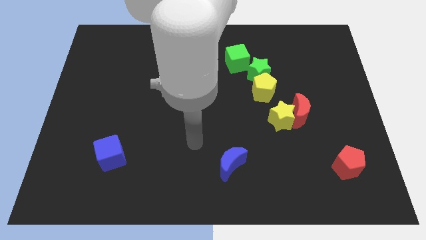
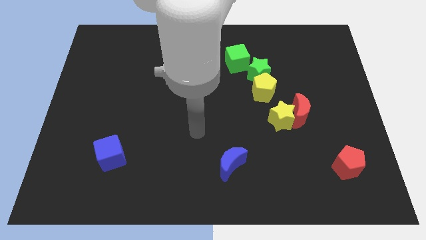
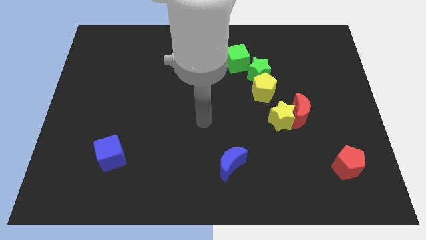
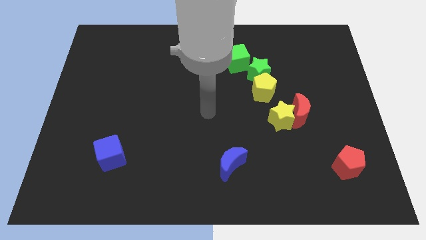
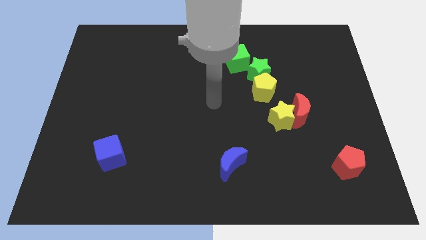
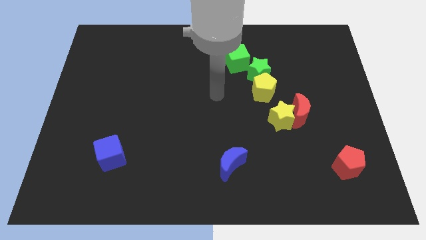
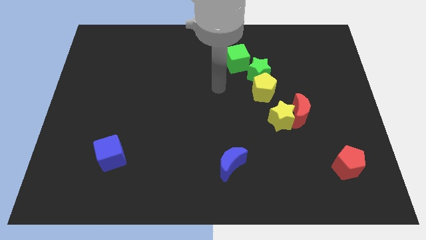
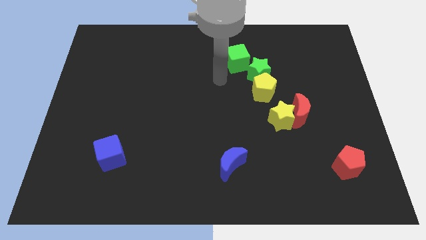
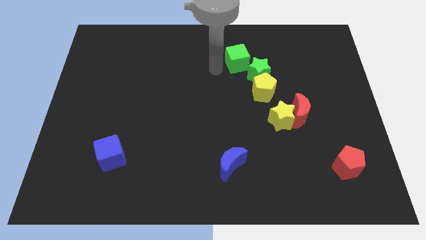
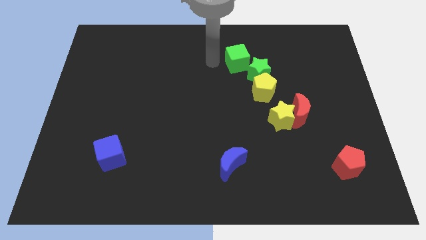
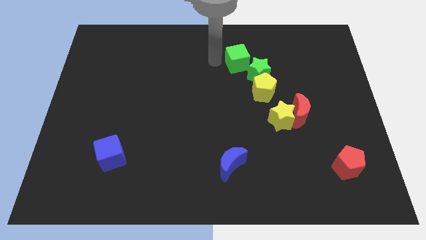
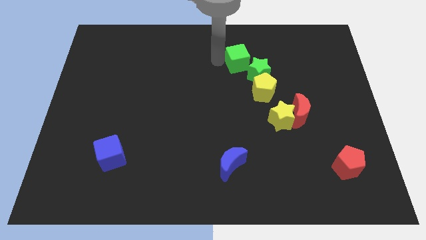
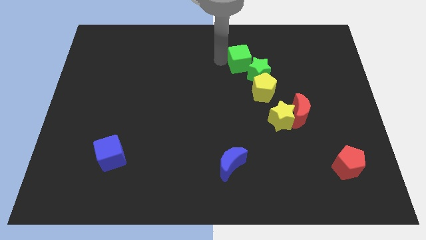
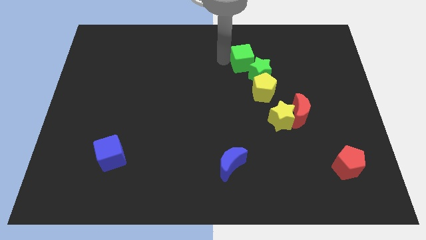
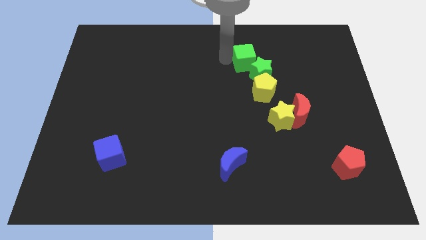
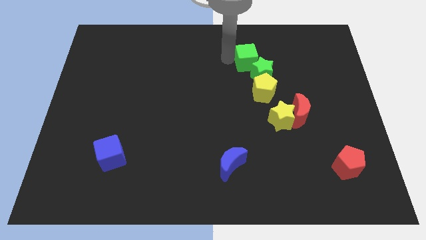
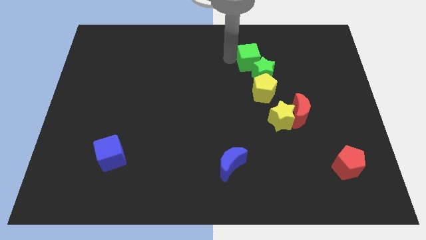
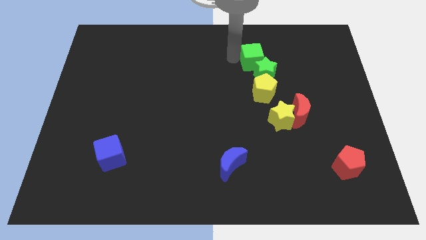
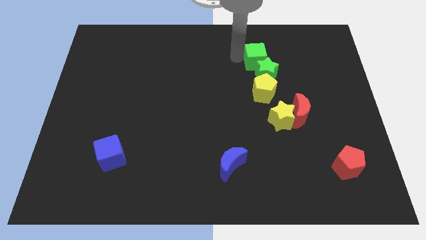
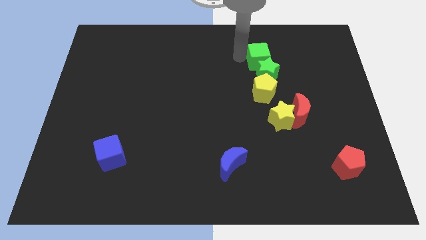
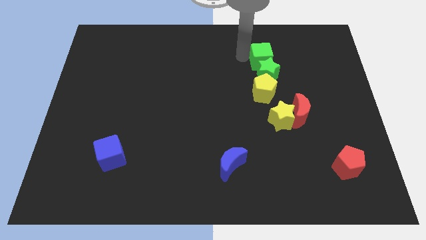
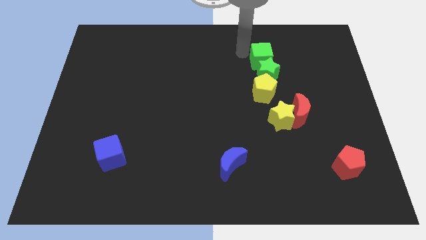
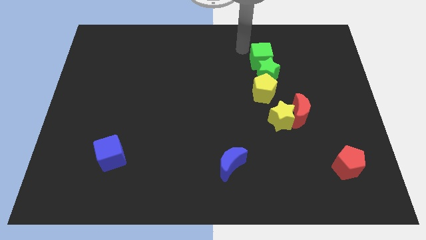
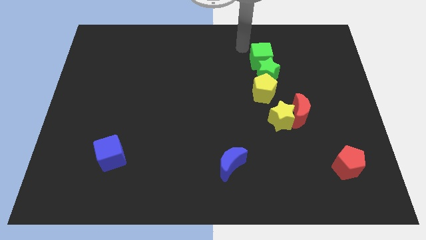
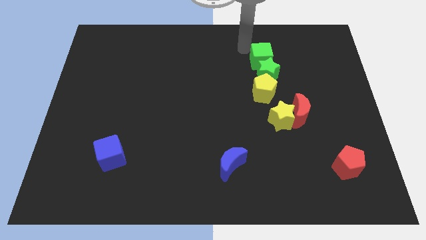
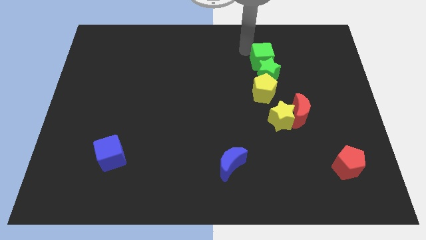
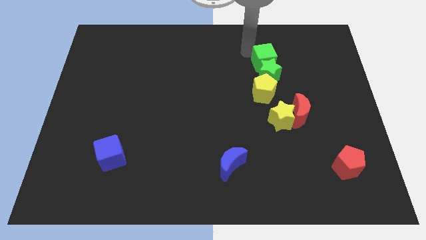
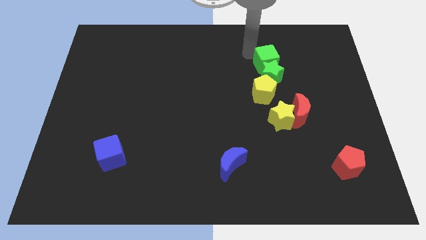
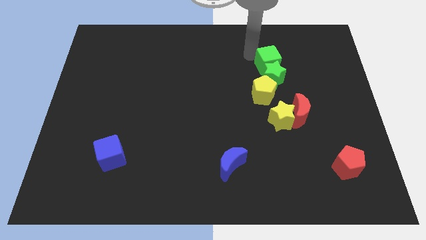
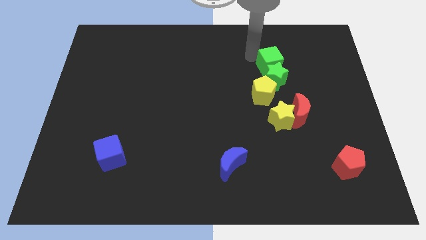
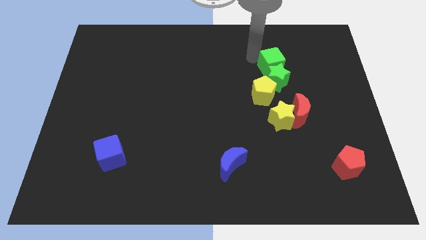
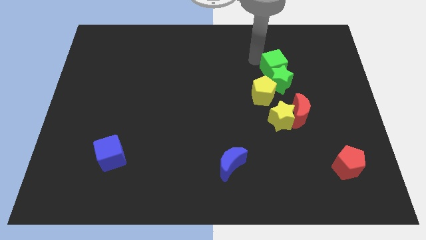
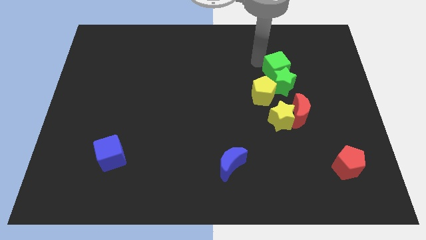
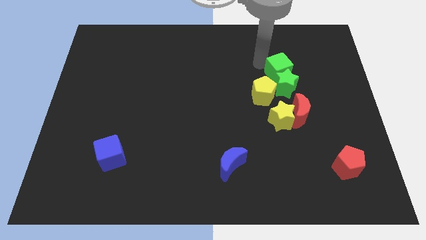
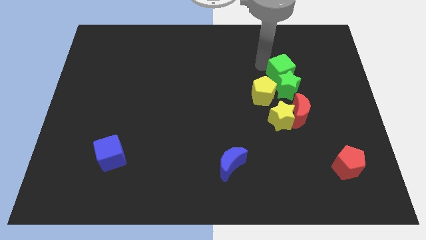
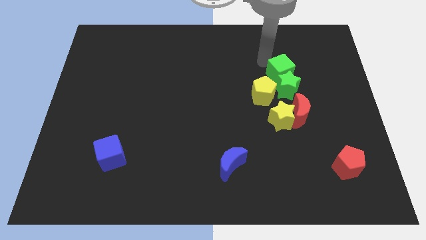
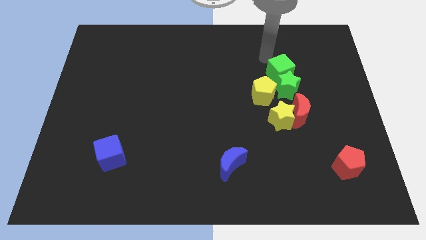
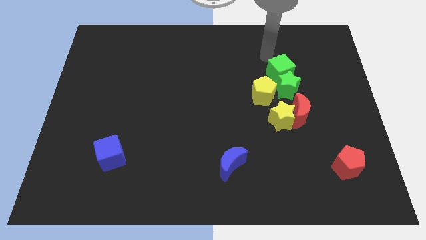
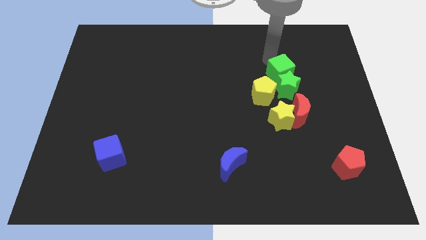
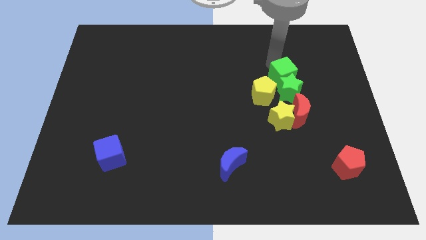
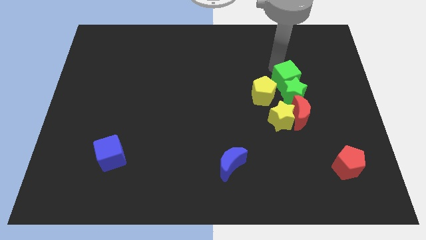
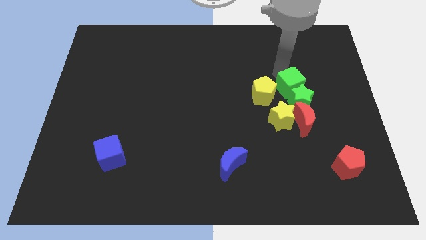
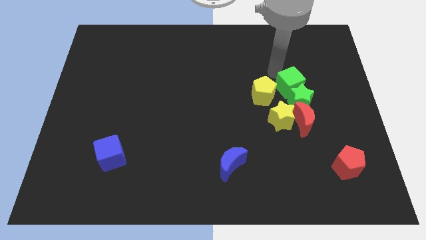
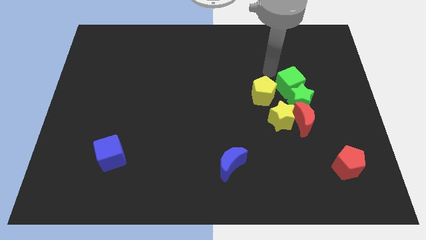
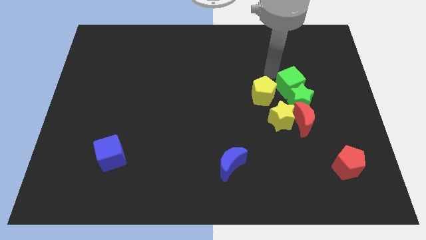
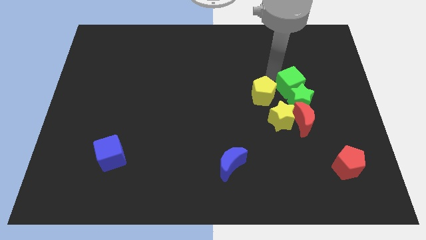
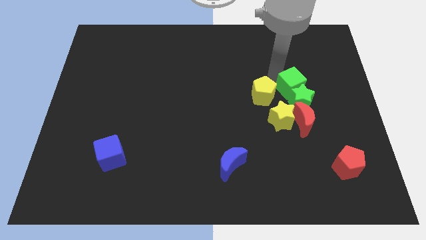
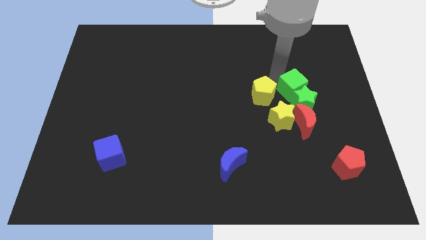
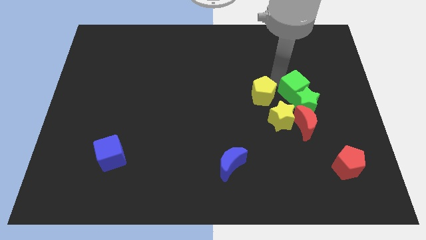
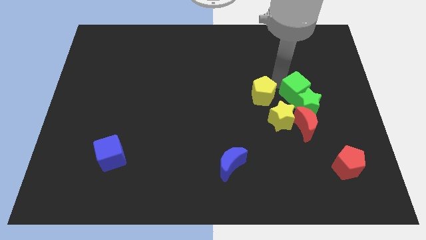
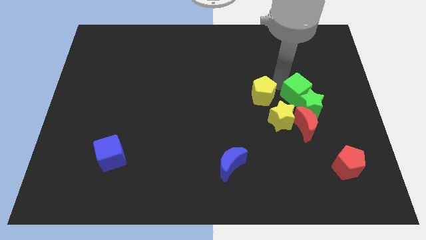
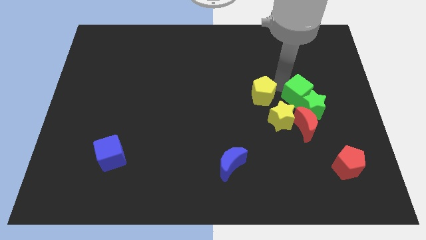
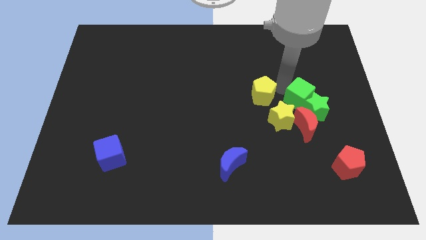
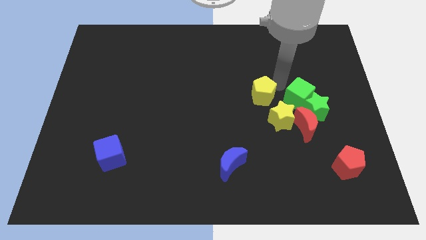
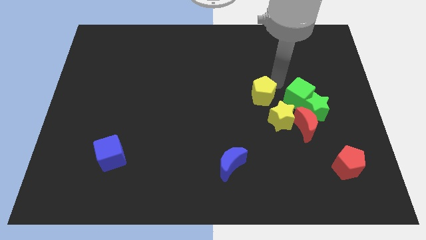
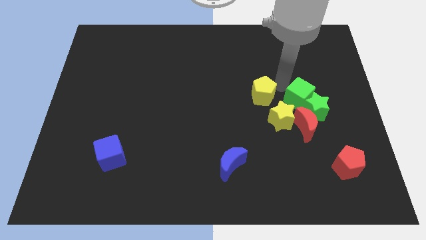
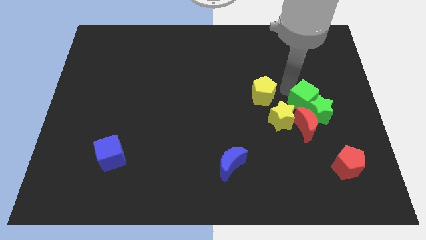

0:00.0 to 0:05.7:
move the green cube down and then to the right

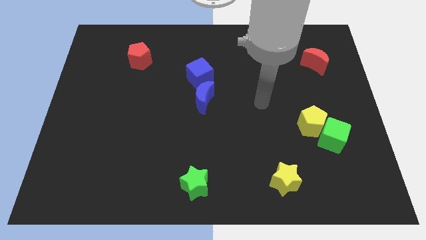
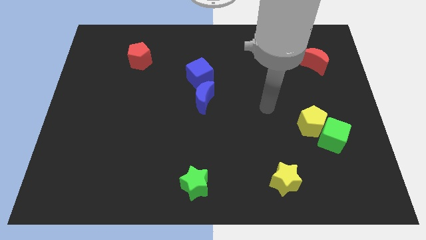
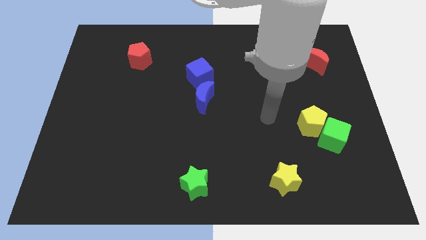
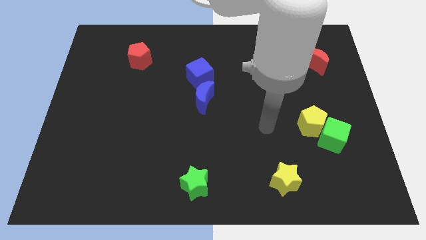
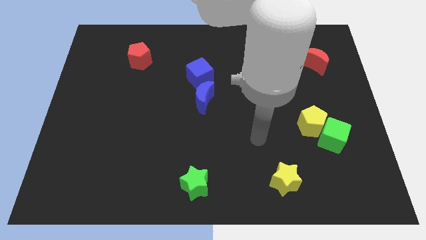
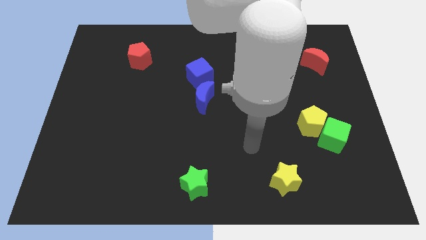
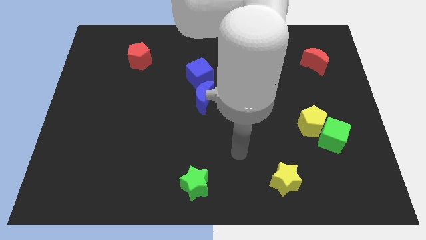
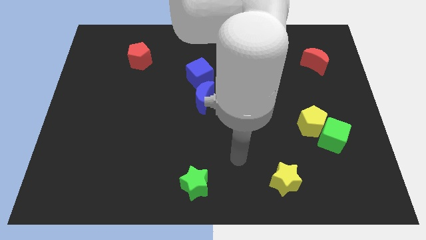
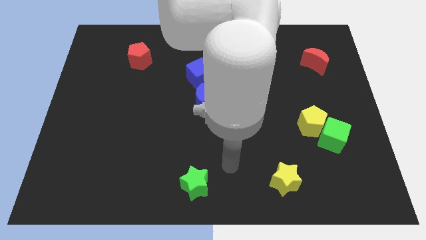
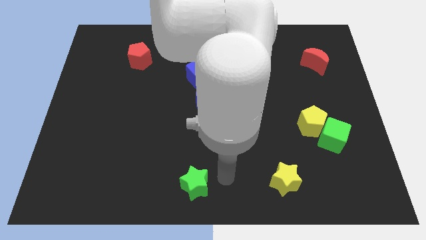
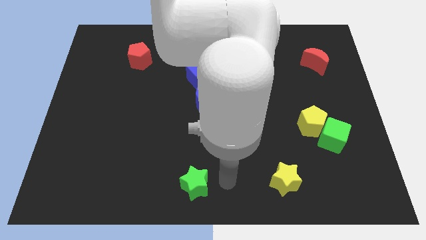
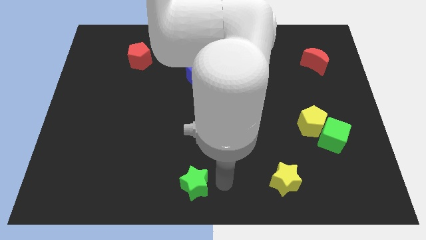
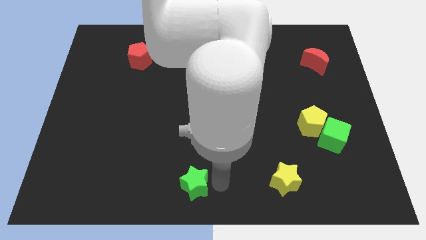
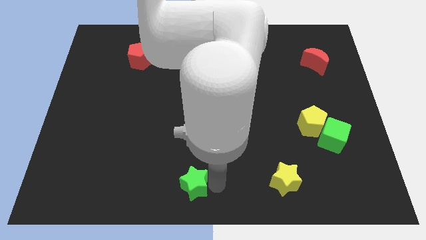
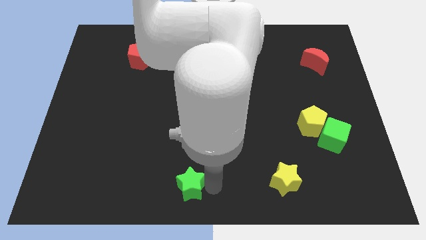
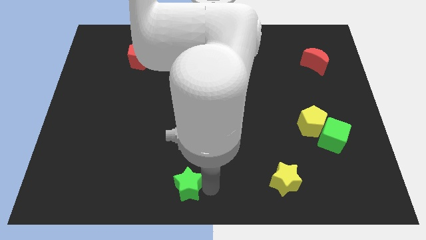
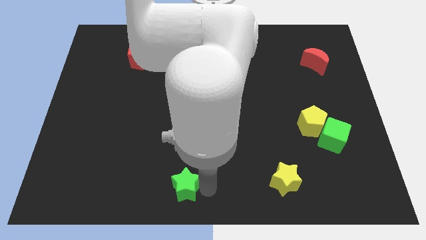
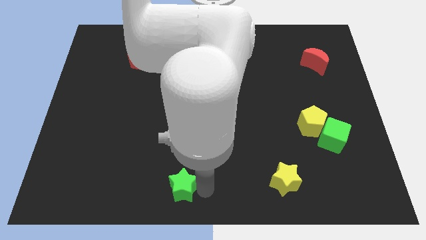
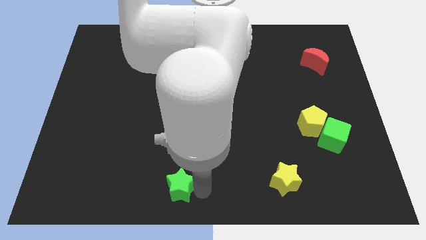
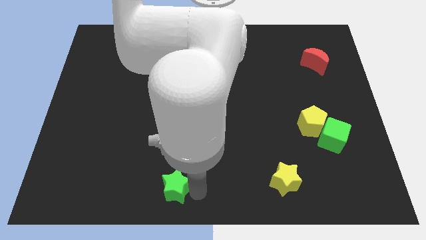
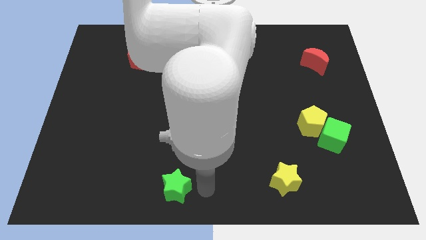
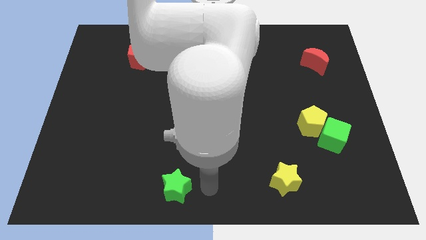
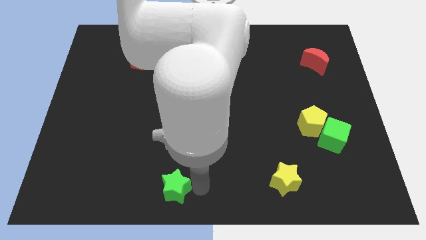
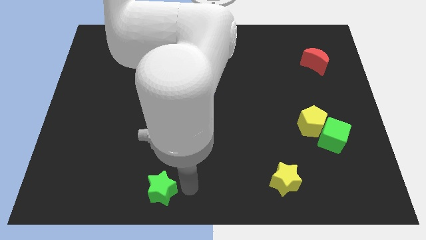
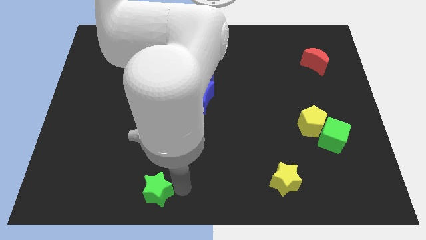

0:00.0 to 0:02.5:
slightly move the green star to the left
